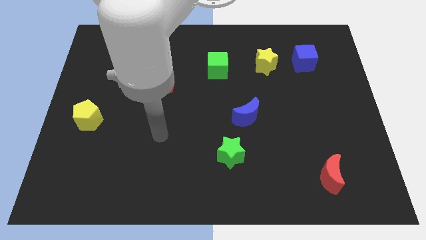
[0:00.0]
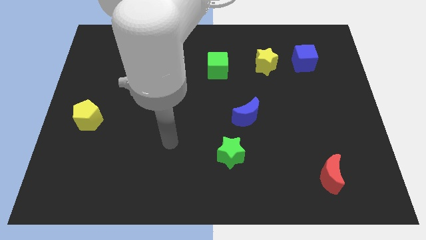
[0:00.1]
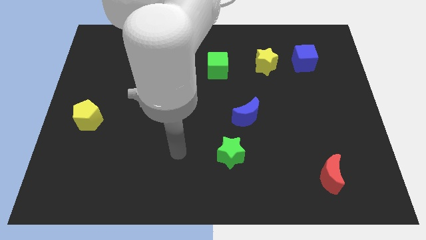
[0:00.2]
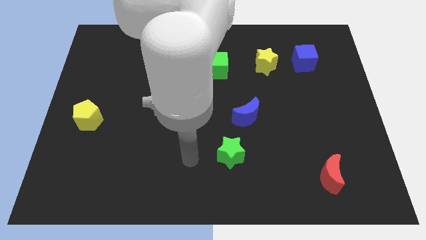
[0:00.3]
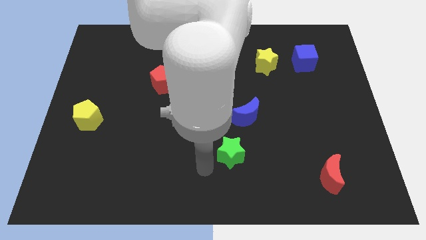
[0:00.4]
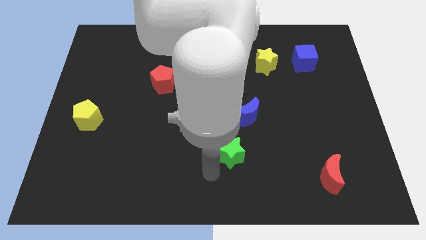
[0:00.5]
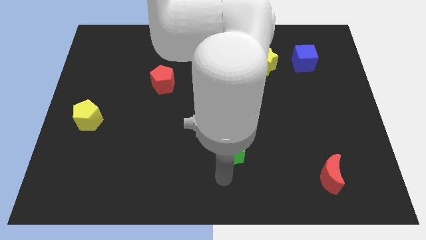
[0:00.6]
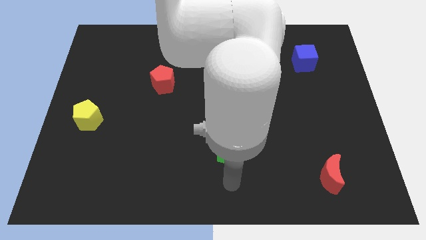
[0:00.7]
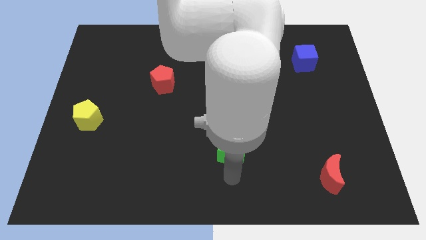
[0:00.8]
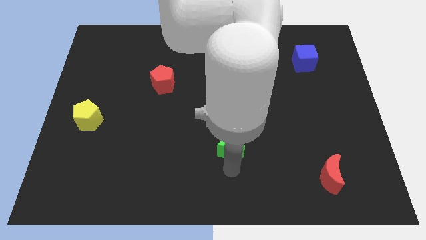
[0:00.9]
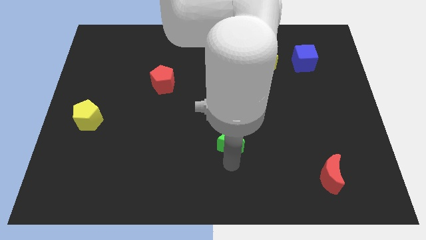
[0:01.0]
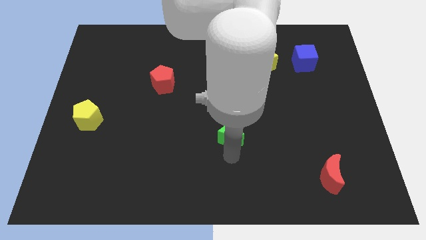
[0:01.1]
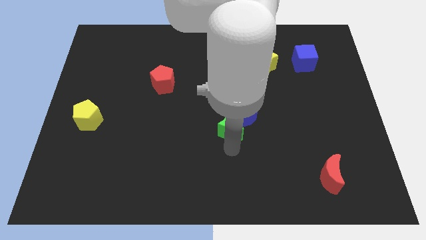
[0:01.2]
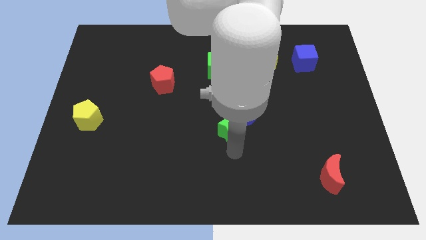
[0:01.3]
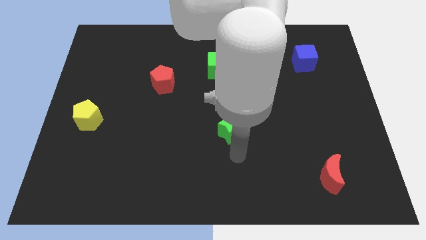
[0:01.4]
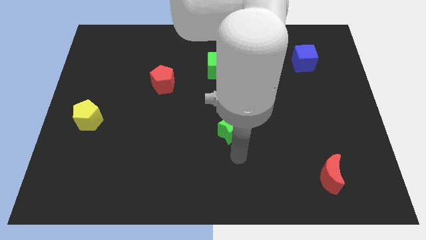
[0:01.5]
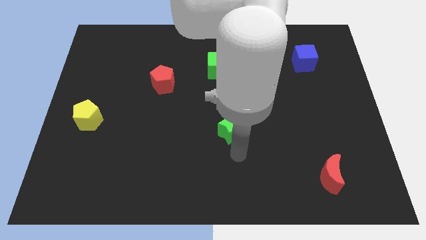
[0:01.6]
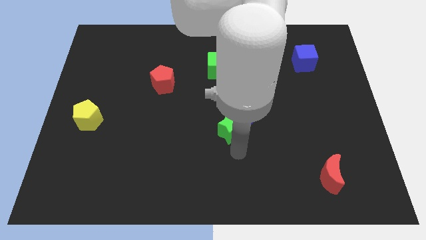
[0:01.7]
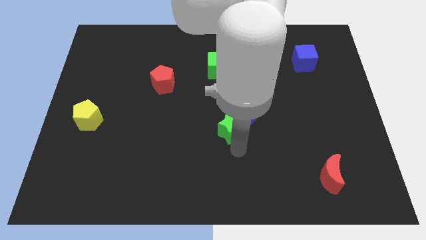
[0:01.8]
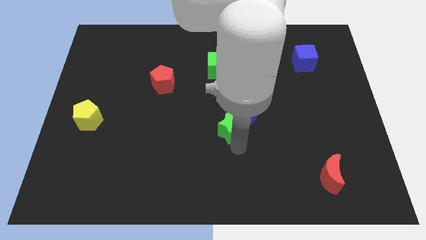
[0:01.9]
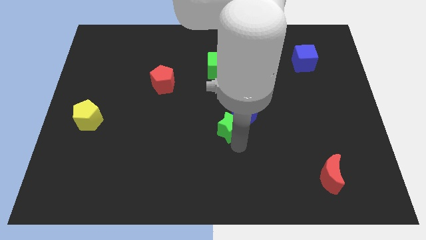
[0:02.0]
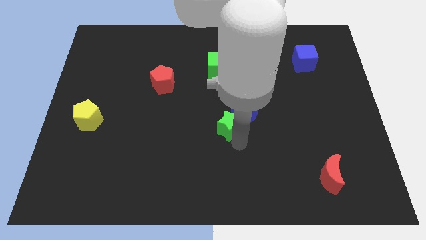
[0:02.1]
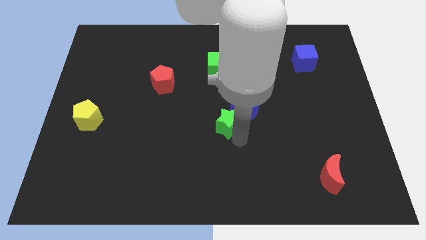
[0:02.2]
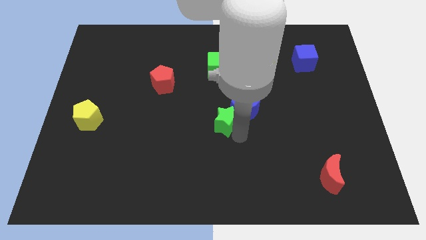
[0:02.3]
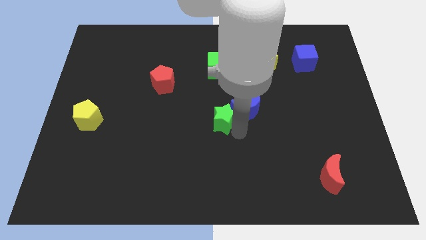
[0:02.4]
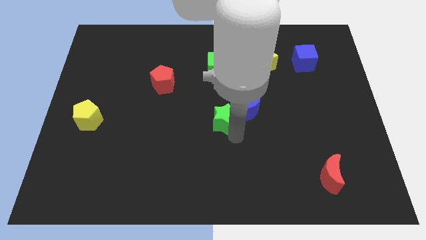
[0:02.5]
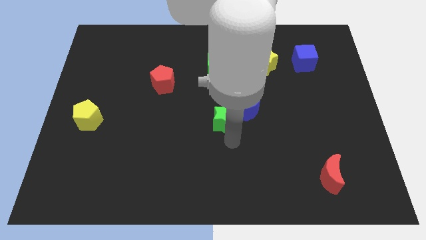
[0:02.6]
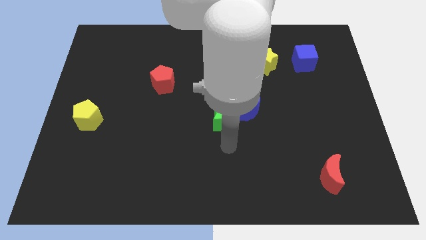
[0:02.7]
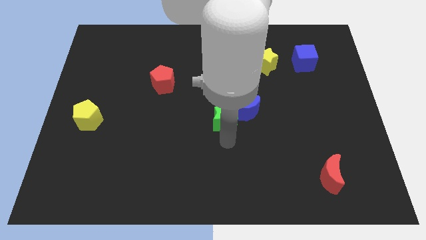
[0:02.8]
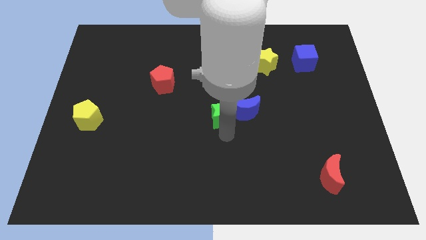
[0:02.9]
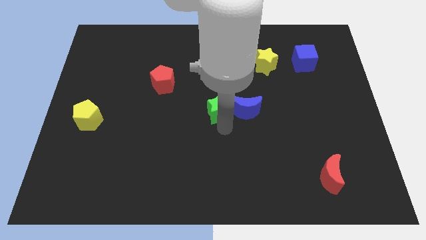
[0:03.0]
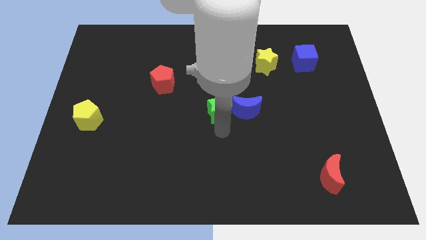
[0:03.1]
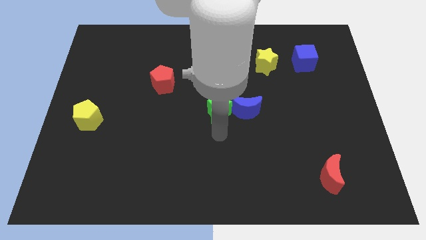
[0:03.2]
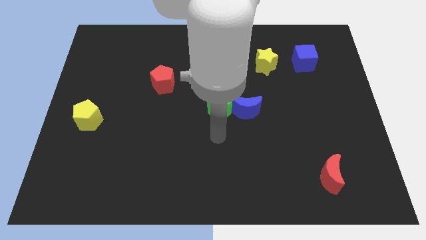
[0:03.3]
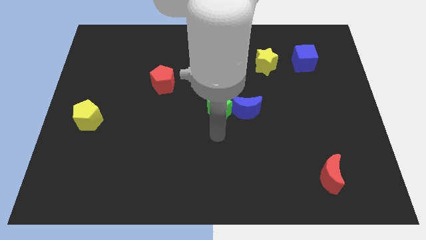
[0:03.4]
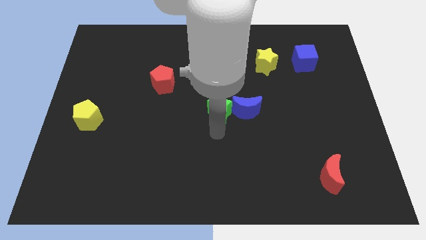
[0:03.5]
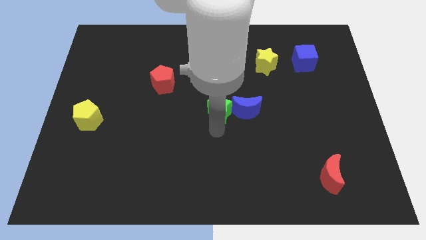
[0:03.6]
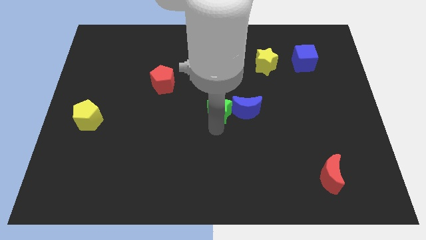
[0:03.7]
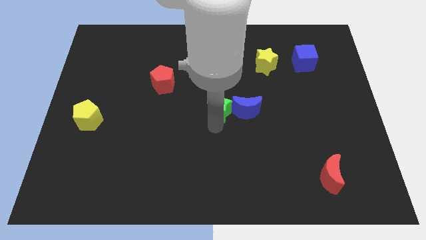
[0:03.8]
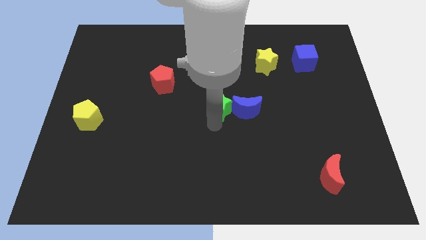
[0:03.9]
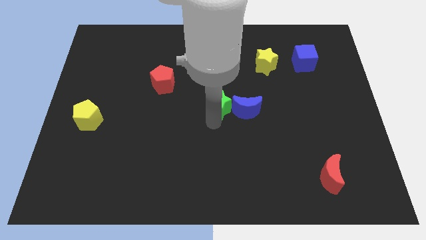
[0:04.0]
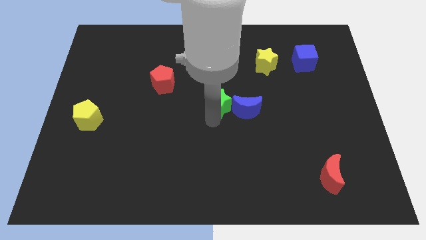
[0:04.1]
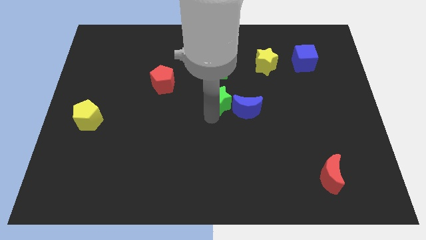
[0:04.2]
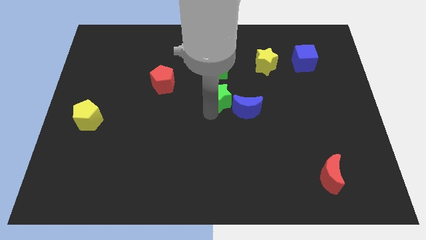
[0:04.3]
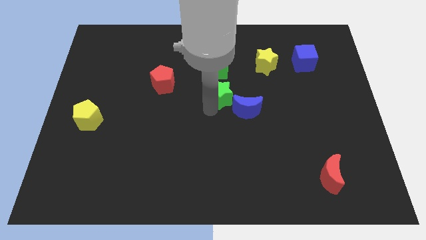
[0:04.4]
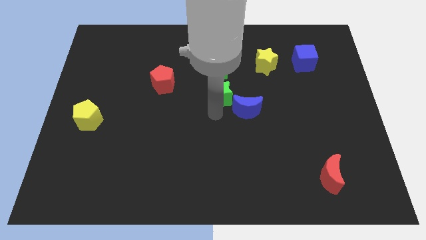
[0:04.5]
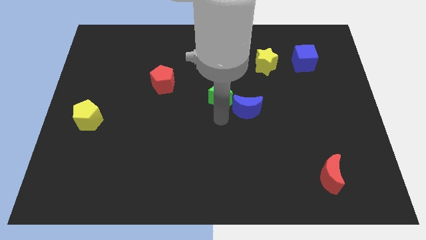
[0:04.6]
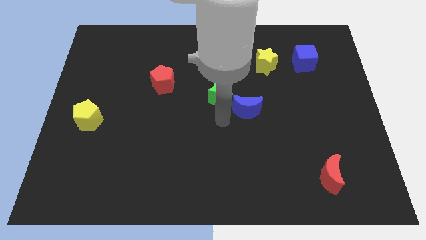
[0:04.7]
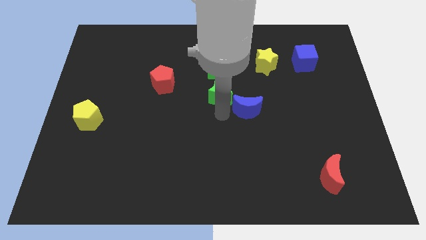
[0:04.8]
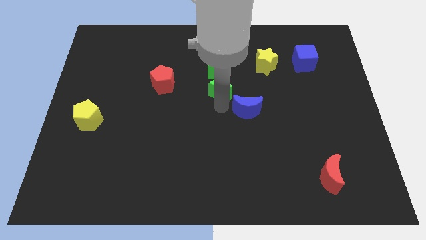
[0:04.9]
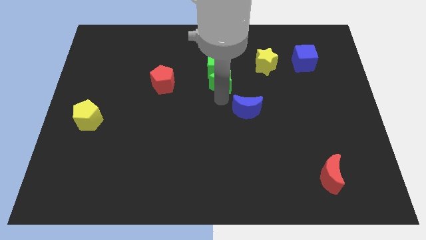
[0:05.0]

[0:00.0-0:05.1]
move the green star next to the green cube

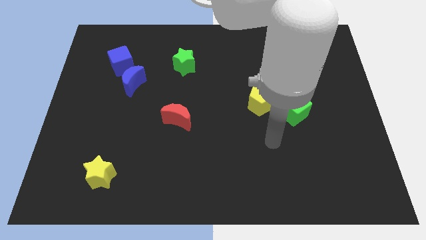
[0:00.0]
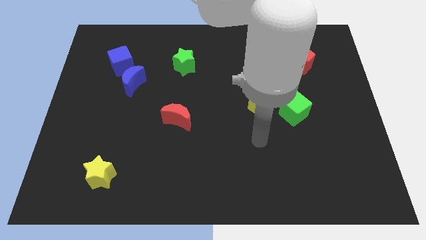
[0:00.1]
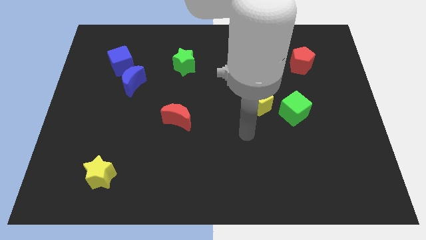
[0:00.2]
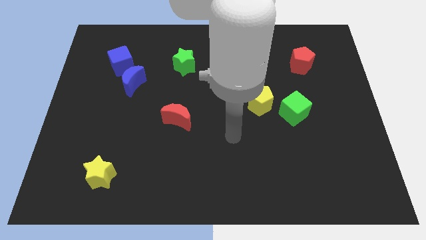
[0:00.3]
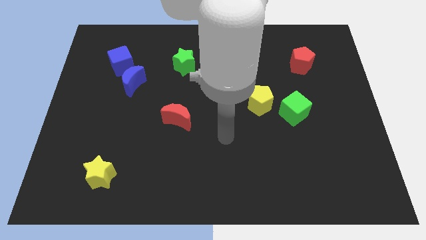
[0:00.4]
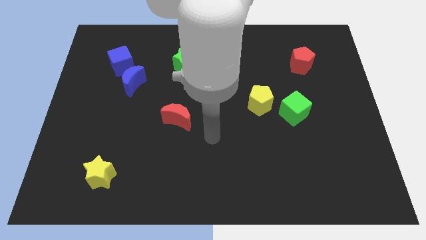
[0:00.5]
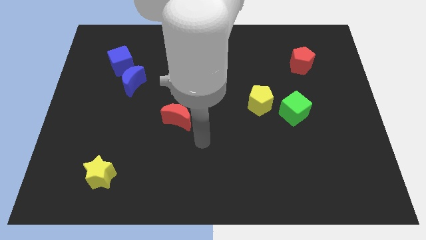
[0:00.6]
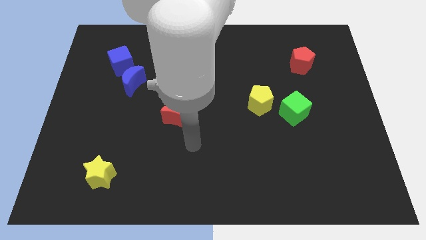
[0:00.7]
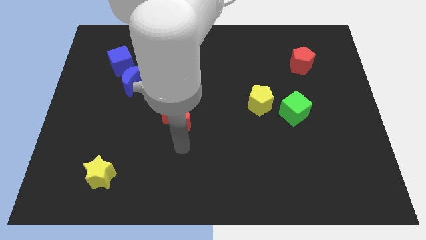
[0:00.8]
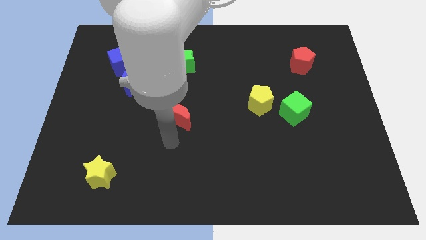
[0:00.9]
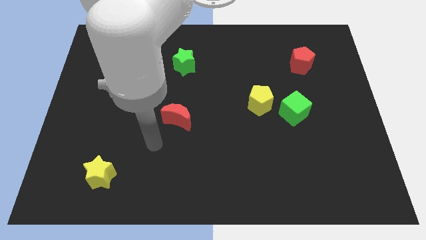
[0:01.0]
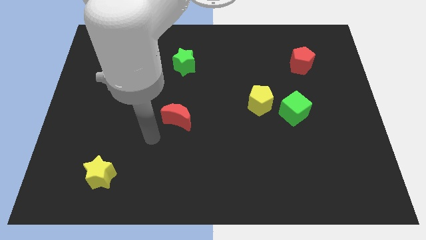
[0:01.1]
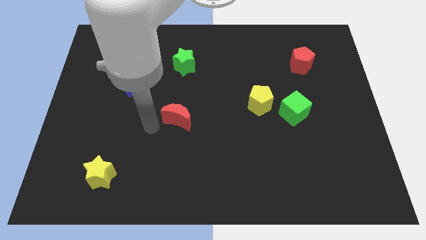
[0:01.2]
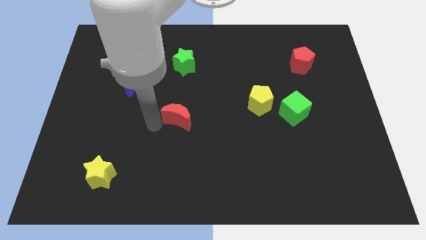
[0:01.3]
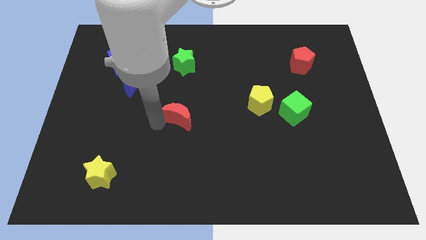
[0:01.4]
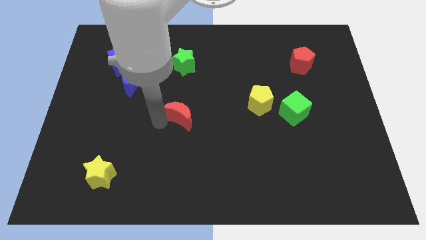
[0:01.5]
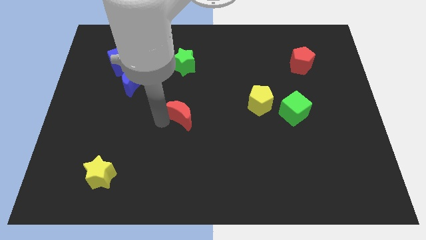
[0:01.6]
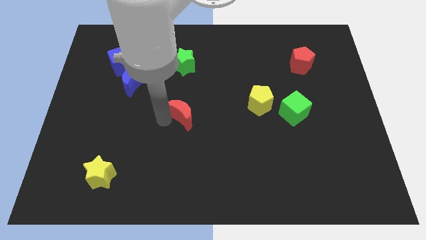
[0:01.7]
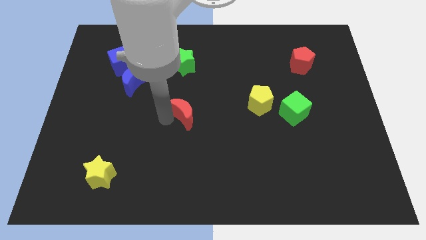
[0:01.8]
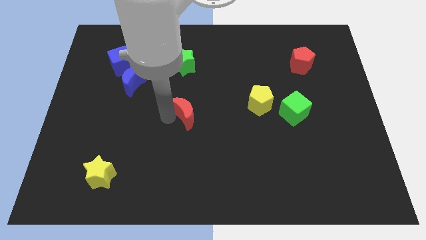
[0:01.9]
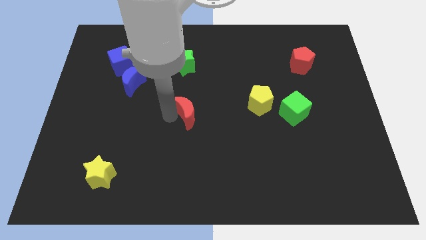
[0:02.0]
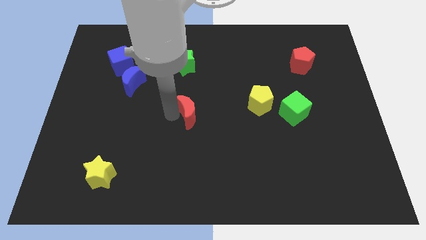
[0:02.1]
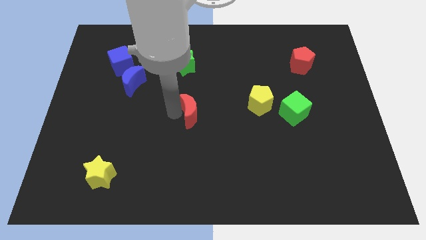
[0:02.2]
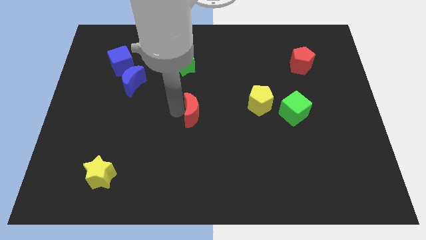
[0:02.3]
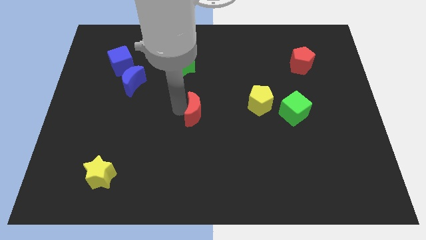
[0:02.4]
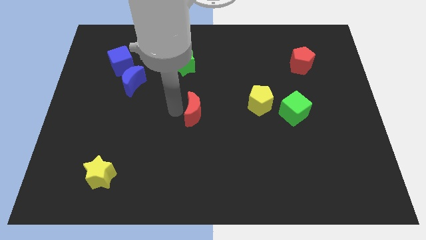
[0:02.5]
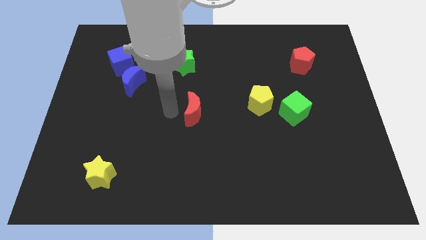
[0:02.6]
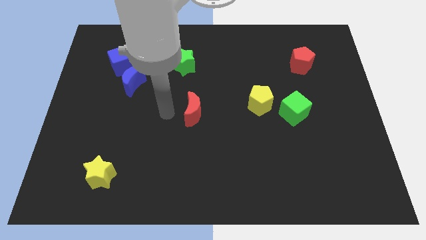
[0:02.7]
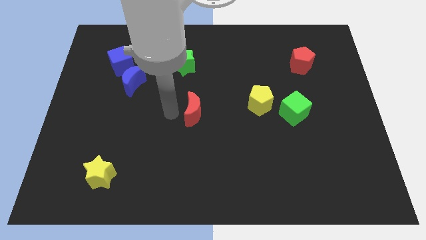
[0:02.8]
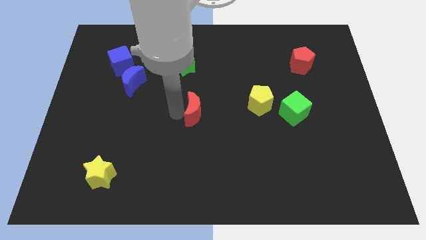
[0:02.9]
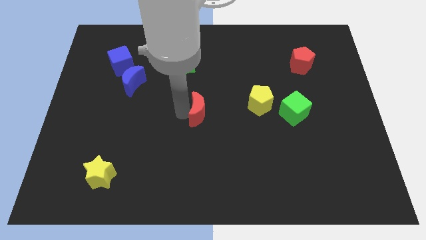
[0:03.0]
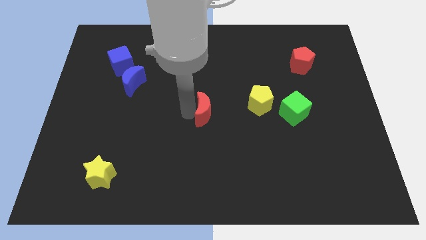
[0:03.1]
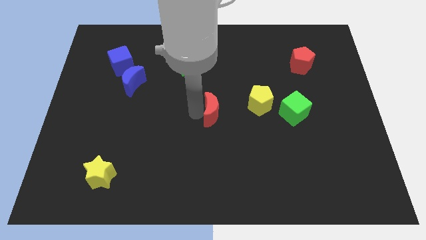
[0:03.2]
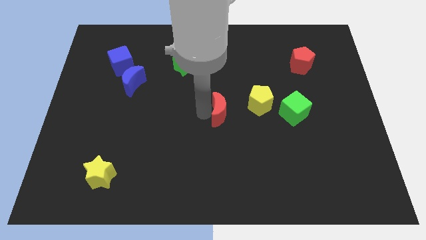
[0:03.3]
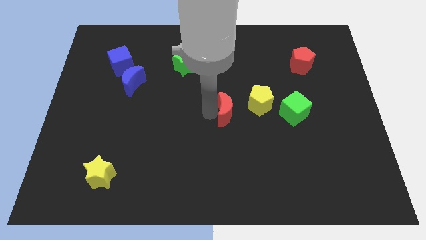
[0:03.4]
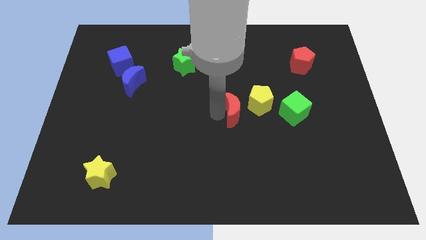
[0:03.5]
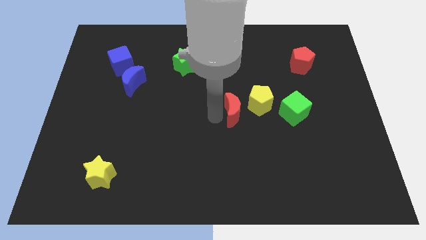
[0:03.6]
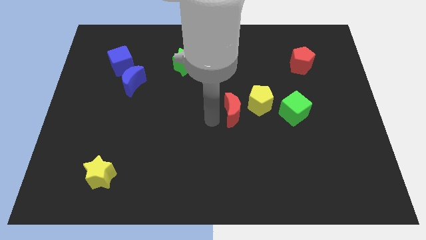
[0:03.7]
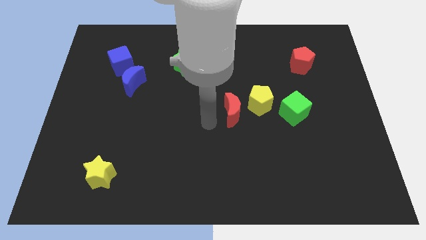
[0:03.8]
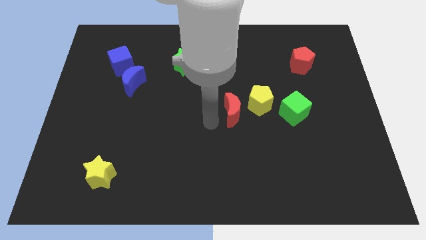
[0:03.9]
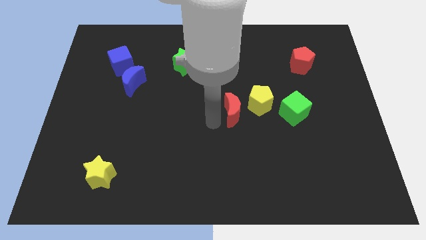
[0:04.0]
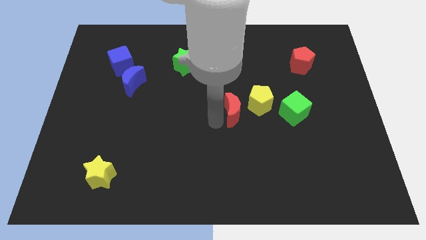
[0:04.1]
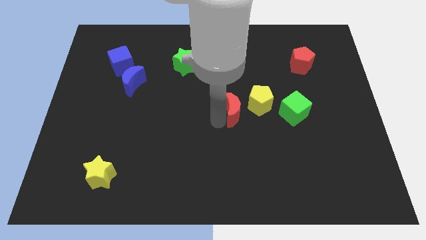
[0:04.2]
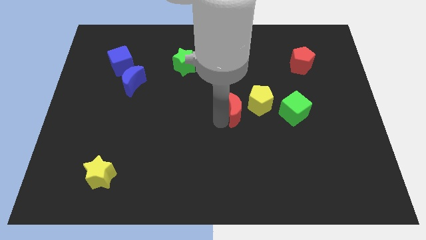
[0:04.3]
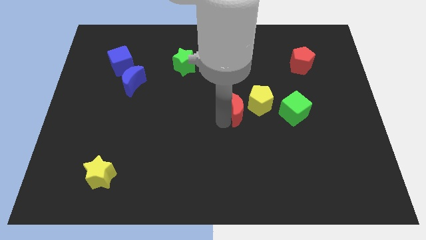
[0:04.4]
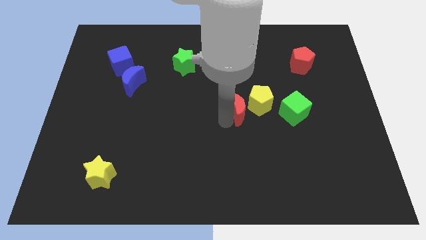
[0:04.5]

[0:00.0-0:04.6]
put the red moon to the yellow pentagon
